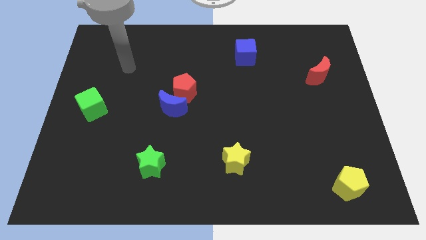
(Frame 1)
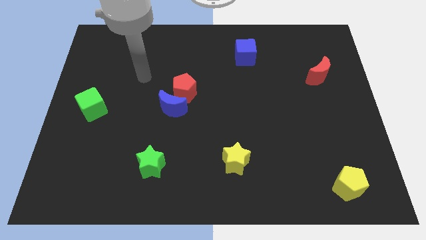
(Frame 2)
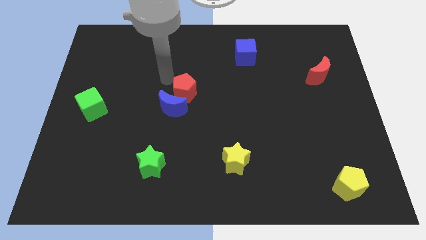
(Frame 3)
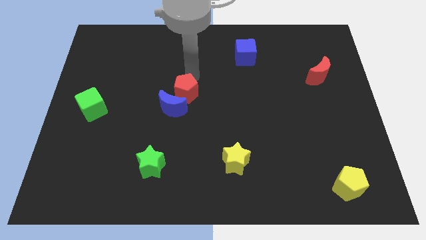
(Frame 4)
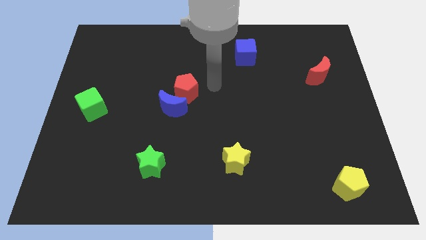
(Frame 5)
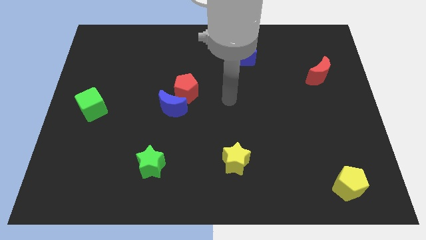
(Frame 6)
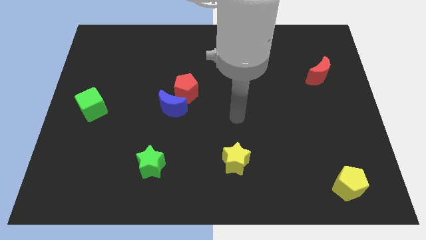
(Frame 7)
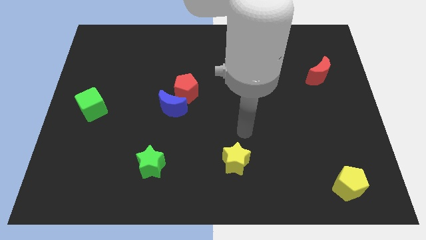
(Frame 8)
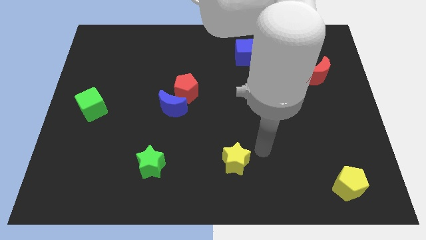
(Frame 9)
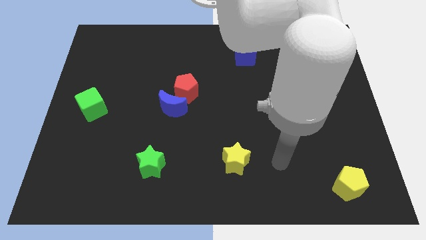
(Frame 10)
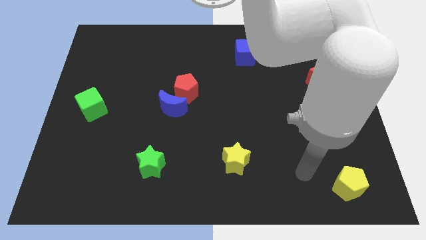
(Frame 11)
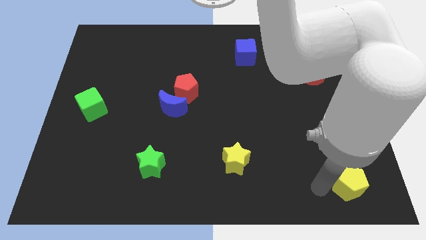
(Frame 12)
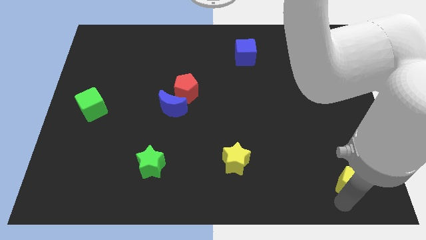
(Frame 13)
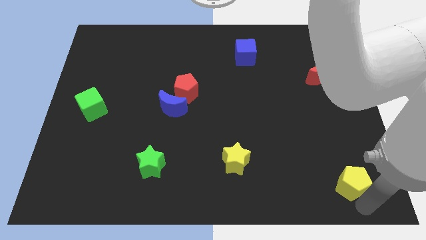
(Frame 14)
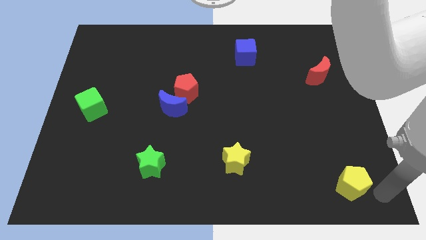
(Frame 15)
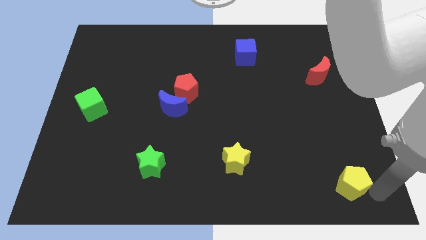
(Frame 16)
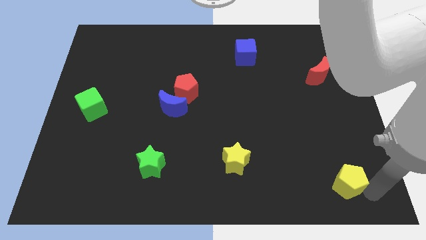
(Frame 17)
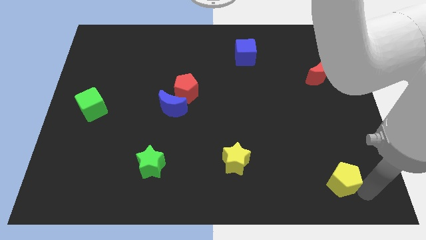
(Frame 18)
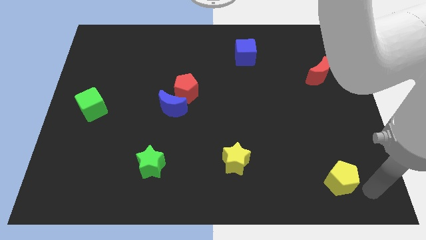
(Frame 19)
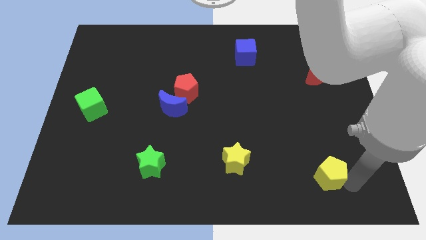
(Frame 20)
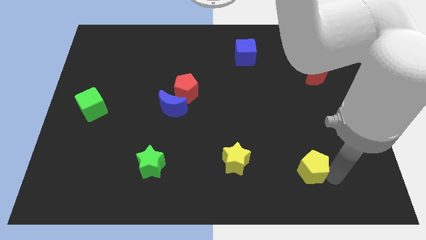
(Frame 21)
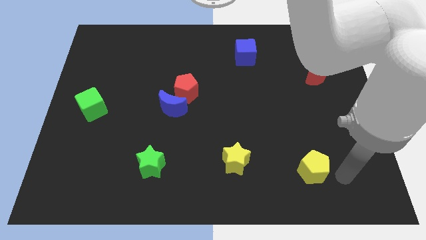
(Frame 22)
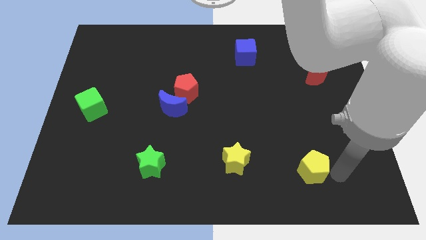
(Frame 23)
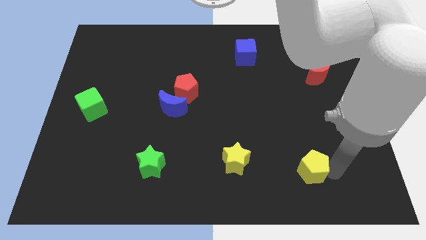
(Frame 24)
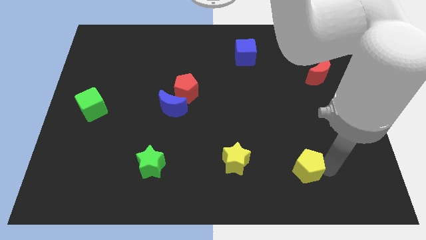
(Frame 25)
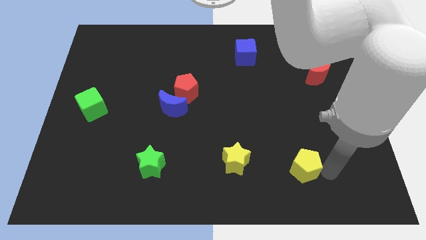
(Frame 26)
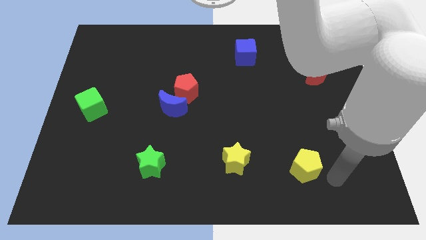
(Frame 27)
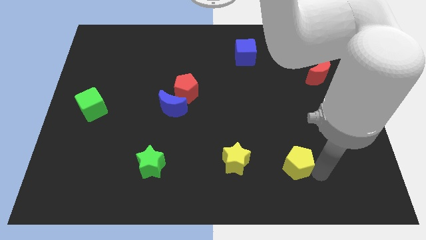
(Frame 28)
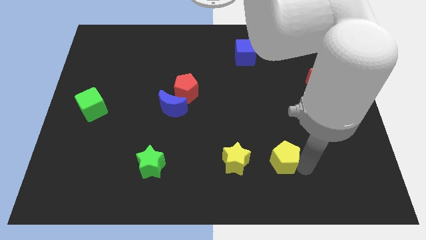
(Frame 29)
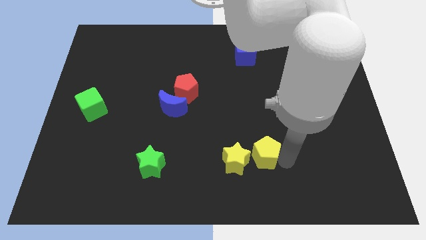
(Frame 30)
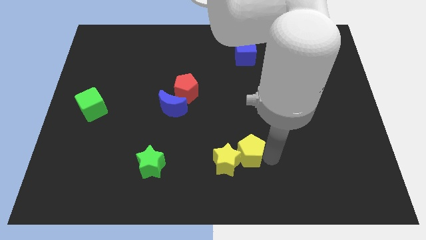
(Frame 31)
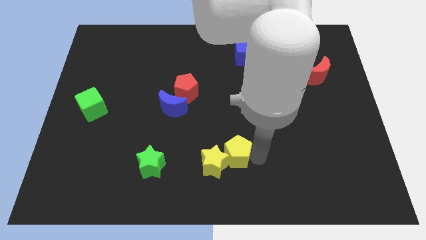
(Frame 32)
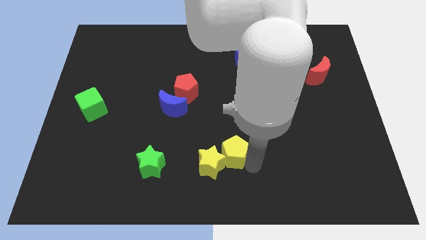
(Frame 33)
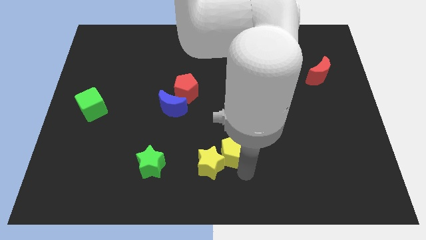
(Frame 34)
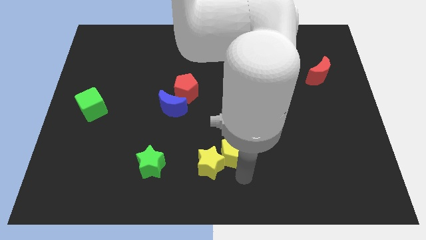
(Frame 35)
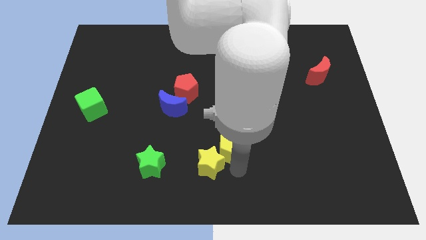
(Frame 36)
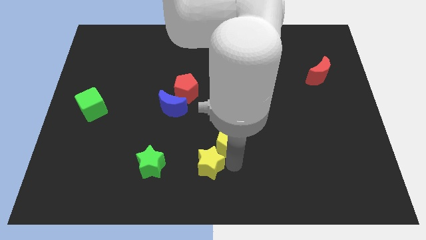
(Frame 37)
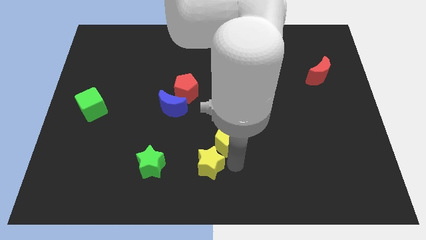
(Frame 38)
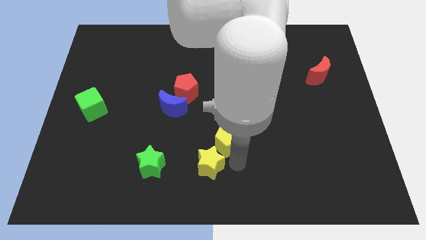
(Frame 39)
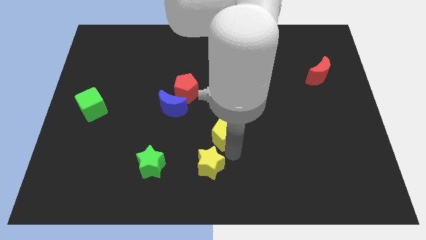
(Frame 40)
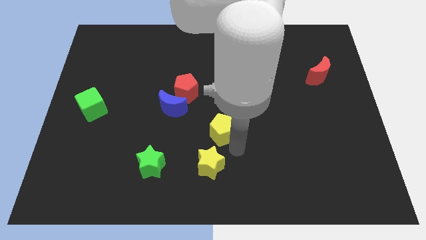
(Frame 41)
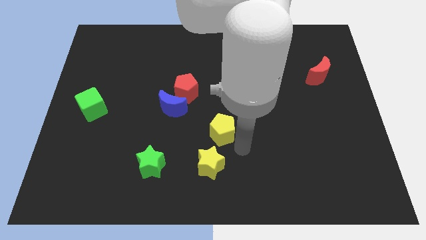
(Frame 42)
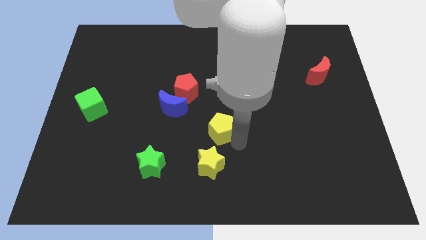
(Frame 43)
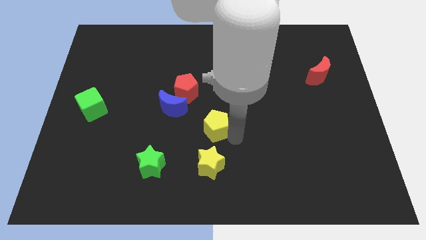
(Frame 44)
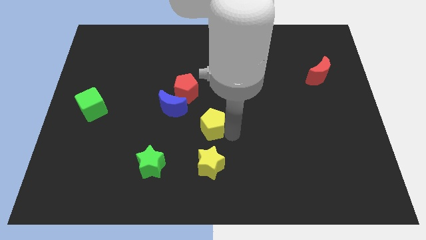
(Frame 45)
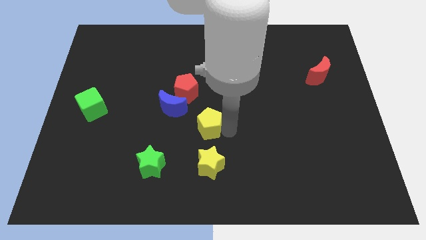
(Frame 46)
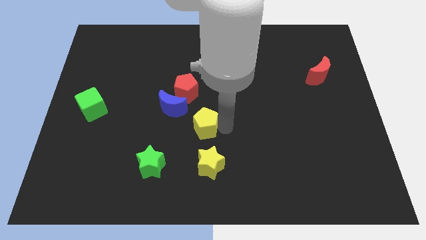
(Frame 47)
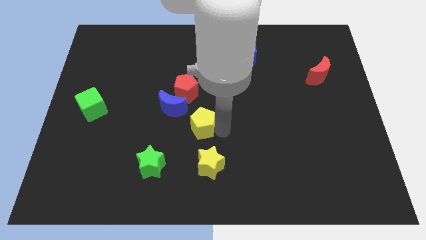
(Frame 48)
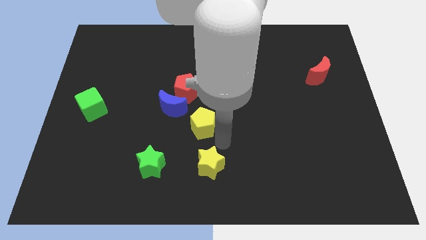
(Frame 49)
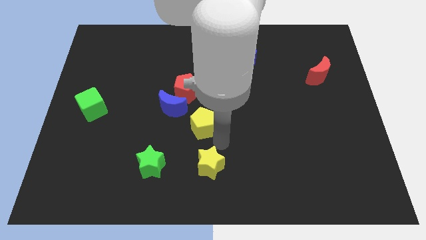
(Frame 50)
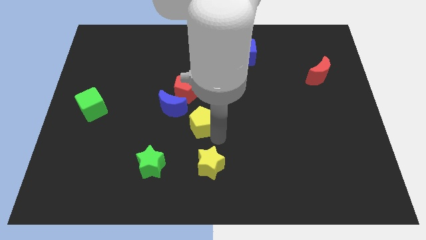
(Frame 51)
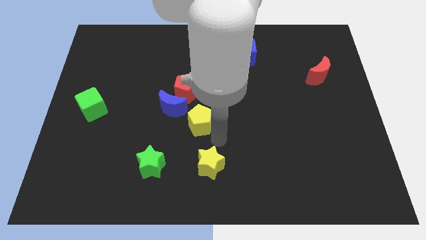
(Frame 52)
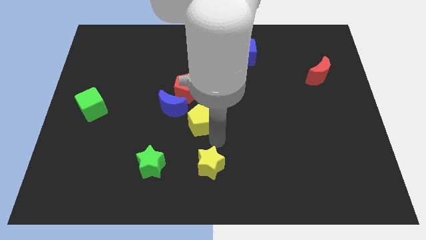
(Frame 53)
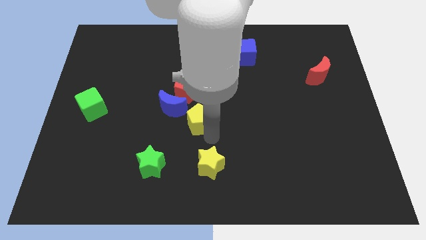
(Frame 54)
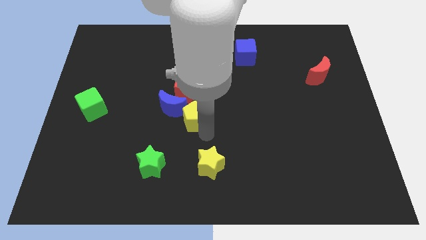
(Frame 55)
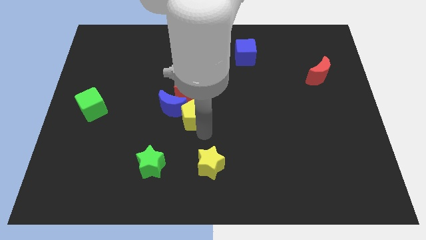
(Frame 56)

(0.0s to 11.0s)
move the yellow pentagon to the blue moon

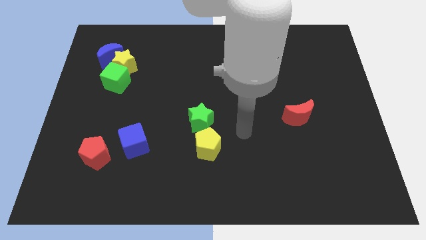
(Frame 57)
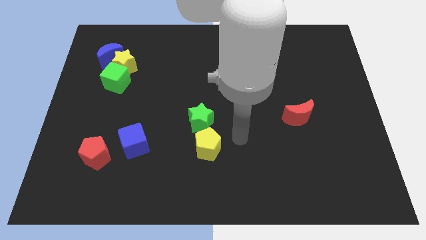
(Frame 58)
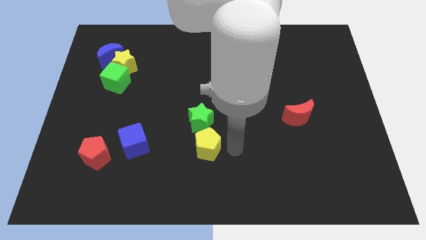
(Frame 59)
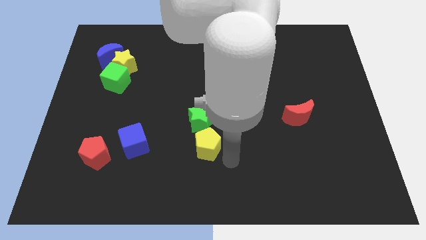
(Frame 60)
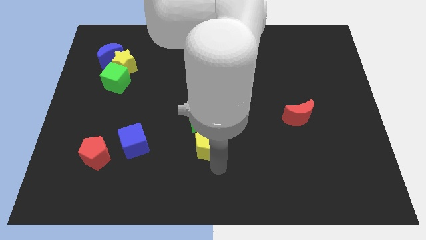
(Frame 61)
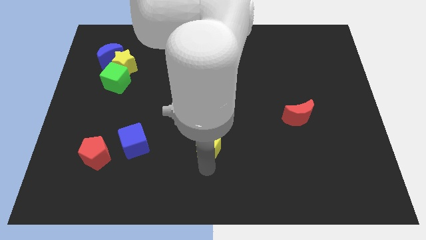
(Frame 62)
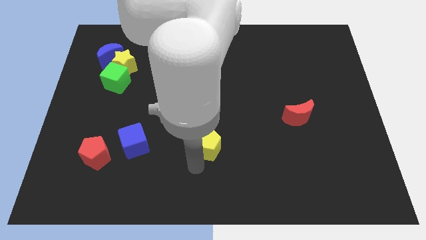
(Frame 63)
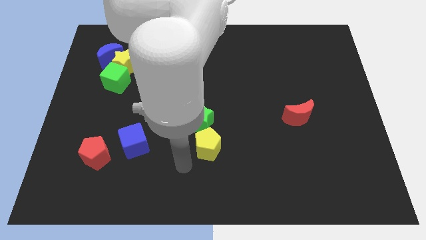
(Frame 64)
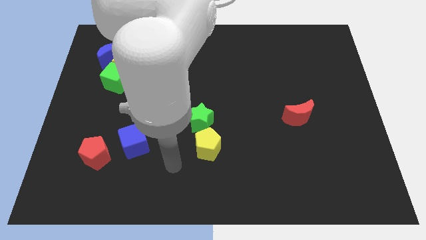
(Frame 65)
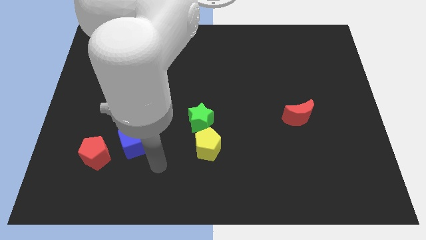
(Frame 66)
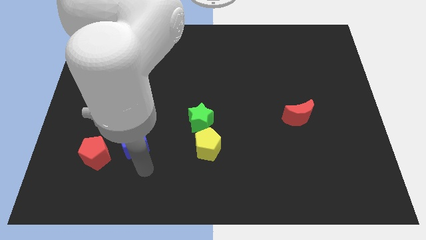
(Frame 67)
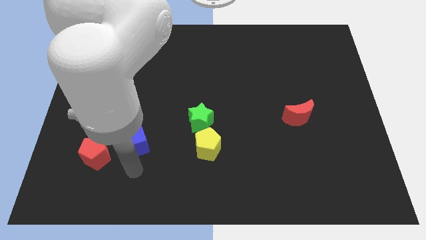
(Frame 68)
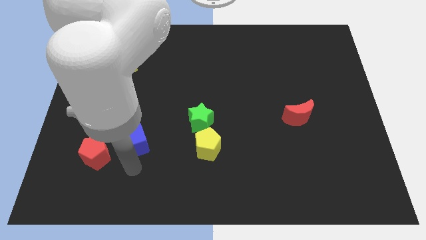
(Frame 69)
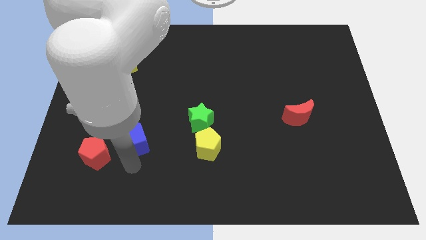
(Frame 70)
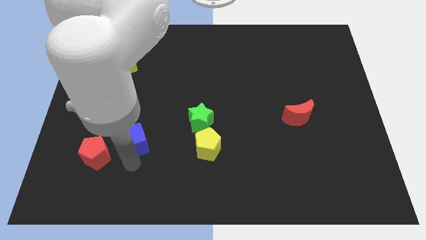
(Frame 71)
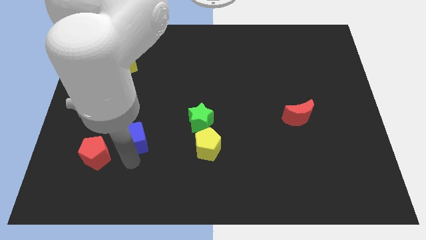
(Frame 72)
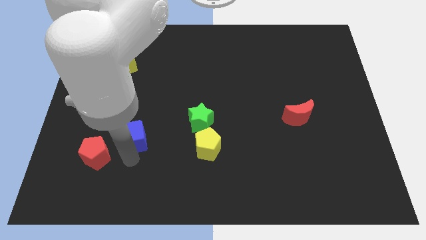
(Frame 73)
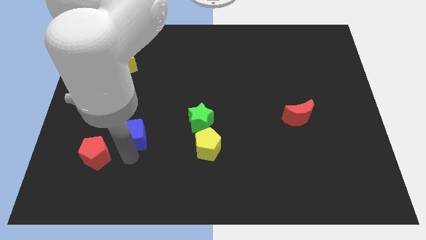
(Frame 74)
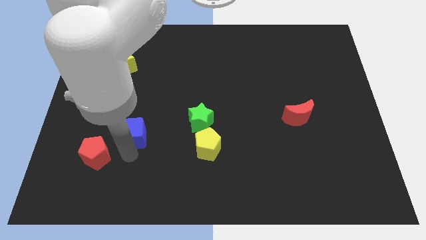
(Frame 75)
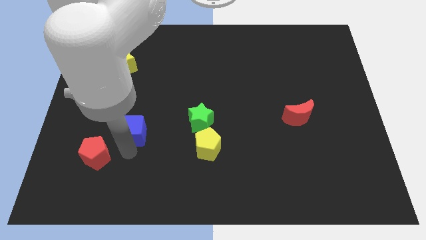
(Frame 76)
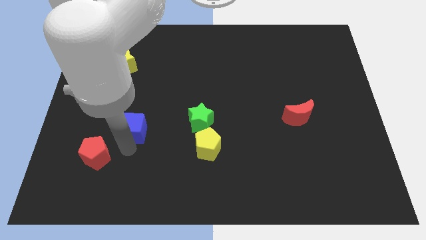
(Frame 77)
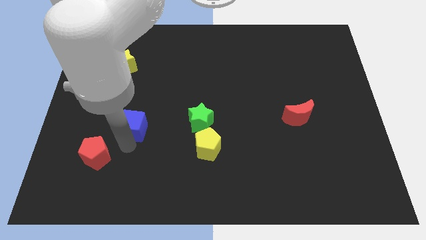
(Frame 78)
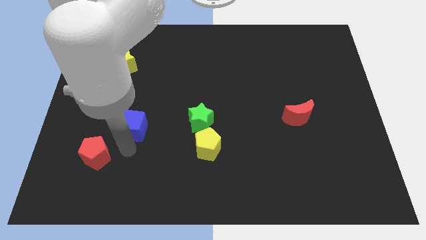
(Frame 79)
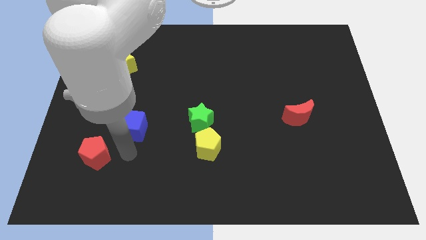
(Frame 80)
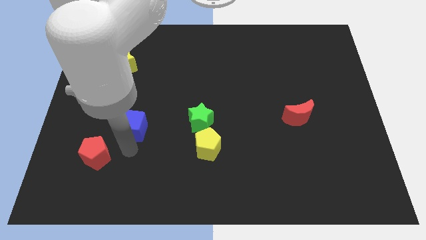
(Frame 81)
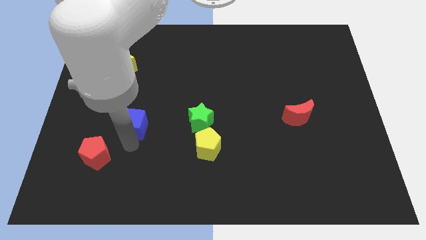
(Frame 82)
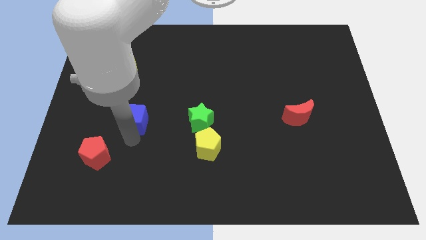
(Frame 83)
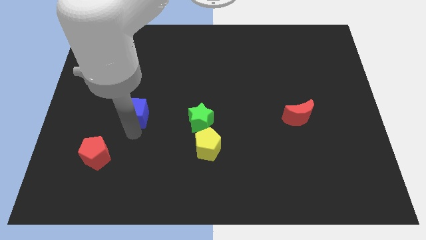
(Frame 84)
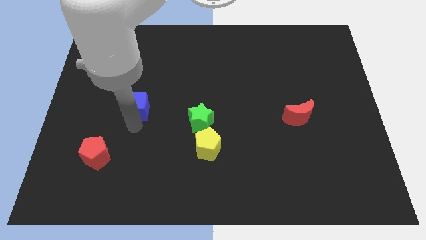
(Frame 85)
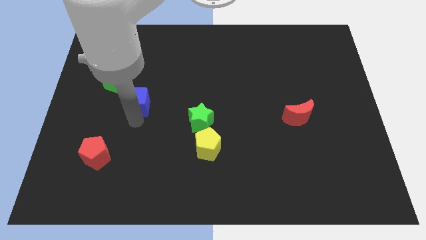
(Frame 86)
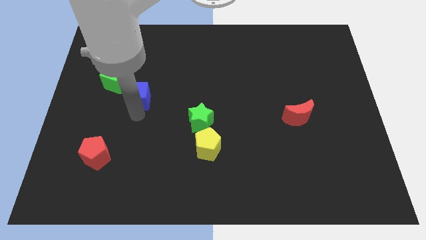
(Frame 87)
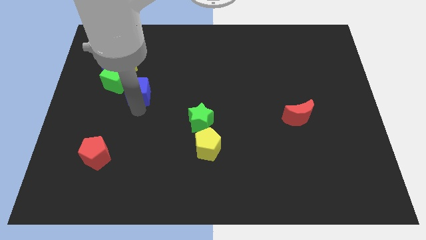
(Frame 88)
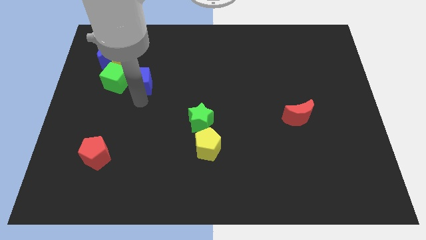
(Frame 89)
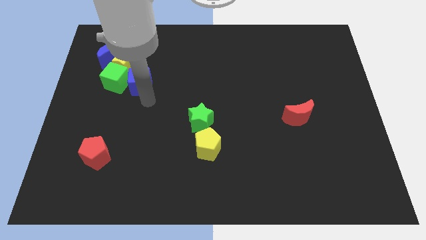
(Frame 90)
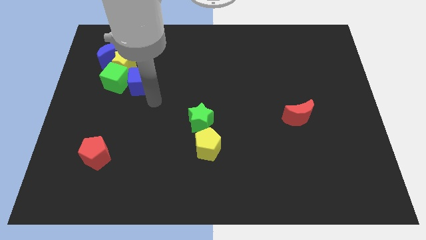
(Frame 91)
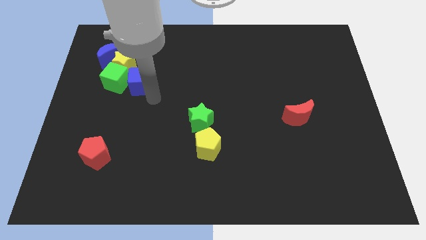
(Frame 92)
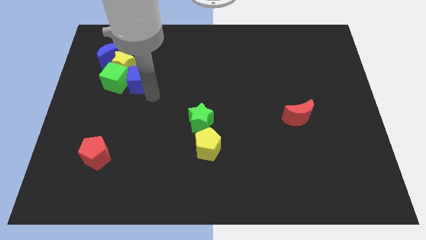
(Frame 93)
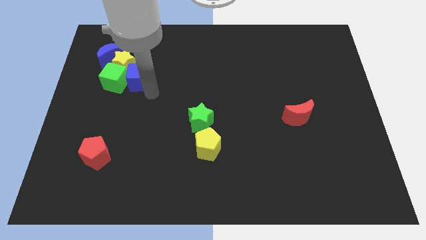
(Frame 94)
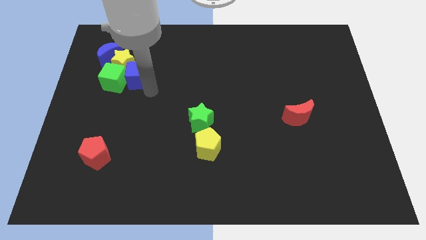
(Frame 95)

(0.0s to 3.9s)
move the blue cube towards the yellow star
